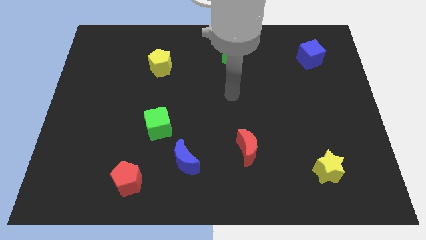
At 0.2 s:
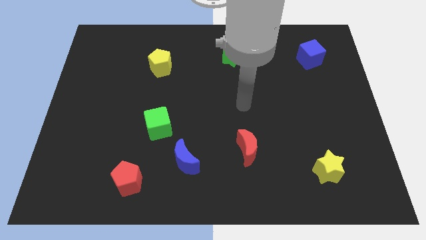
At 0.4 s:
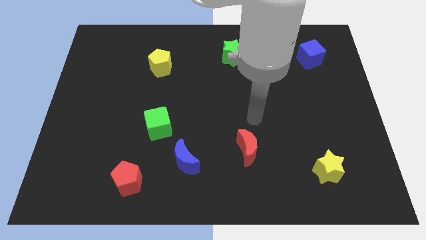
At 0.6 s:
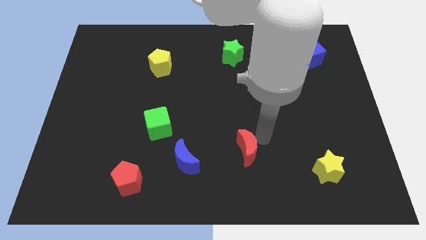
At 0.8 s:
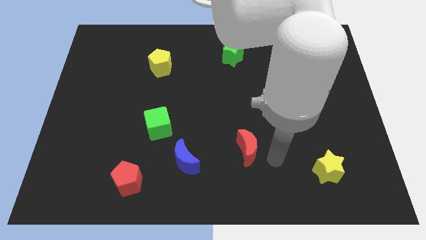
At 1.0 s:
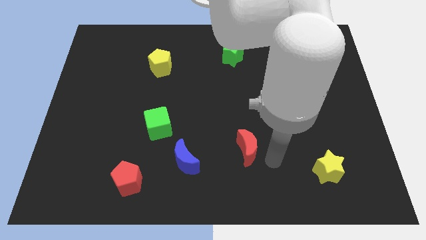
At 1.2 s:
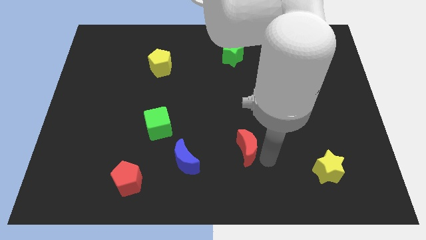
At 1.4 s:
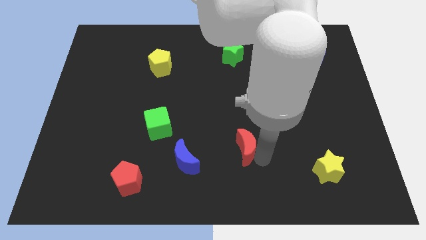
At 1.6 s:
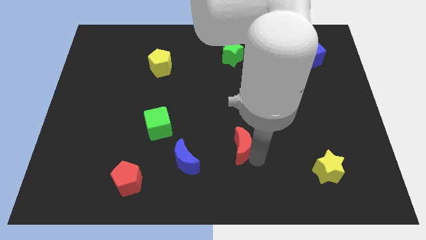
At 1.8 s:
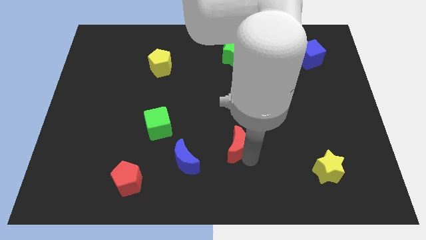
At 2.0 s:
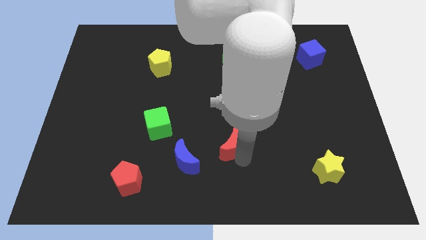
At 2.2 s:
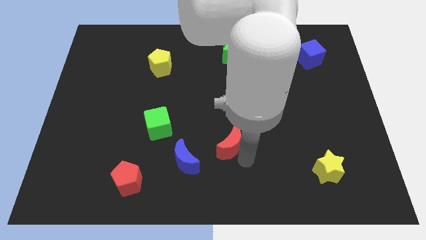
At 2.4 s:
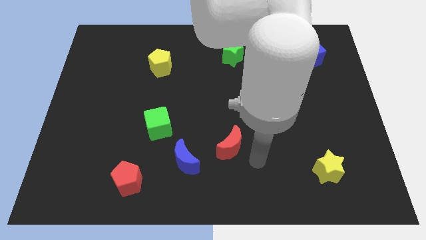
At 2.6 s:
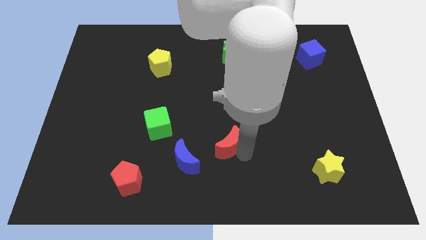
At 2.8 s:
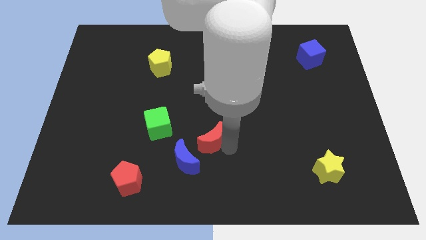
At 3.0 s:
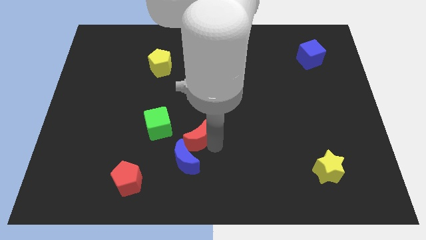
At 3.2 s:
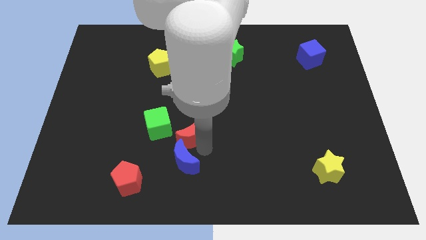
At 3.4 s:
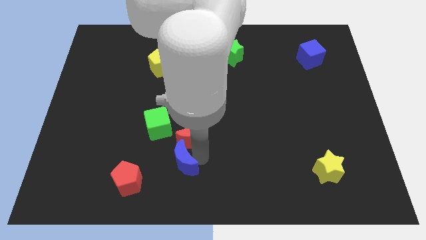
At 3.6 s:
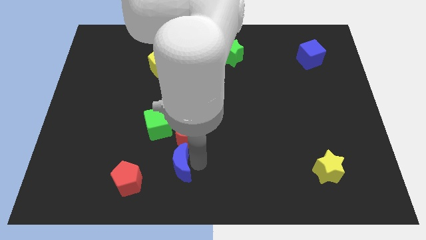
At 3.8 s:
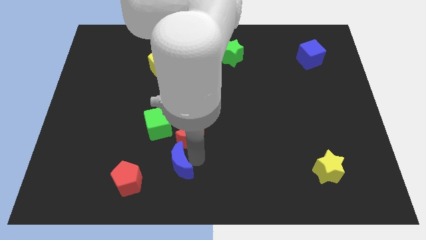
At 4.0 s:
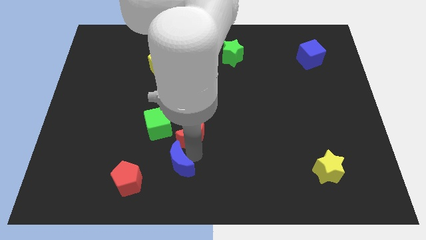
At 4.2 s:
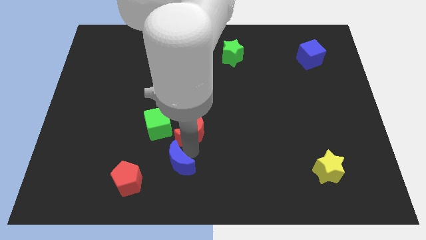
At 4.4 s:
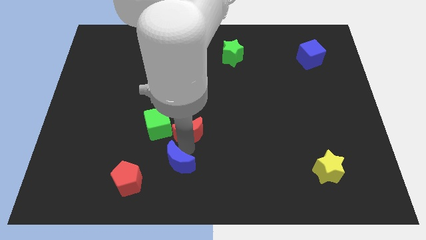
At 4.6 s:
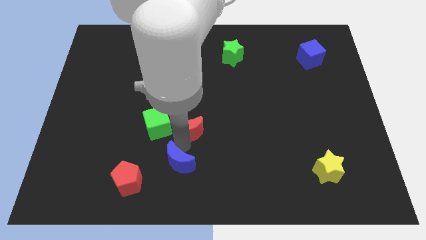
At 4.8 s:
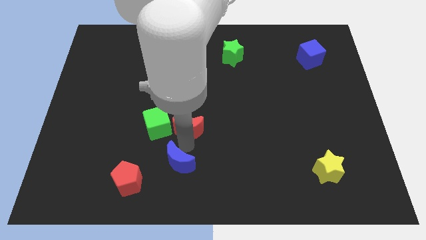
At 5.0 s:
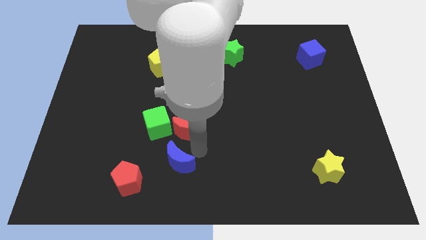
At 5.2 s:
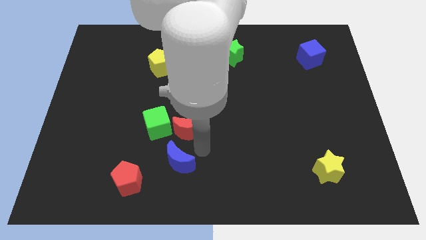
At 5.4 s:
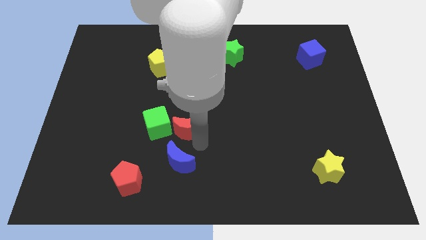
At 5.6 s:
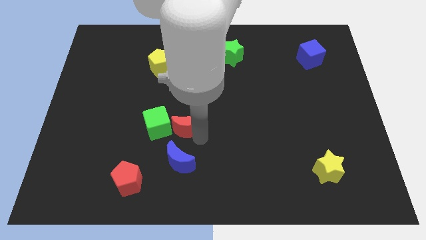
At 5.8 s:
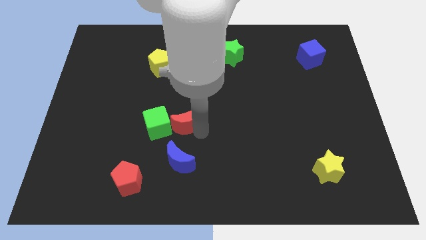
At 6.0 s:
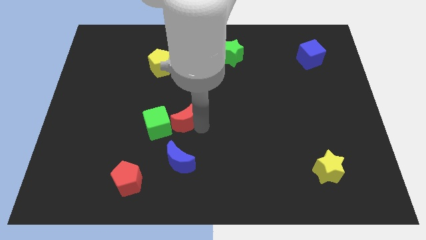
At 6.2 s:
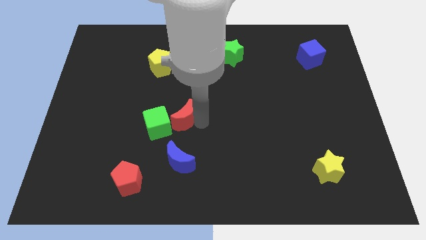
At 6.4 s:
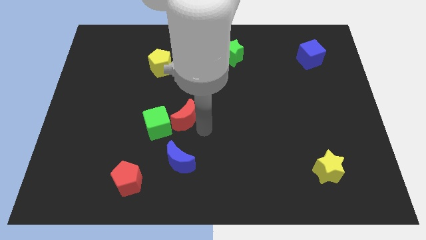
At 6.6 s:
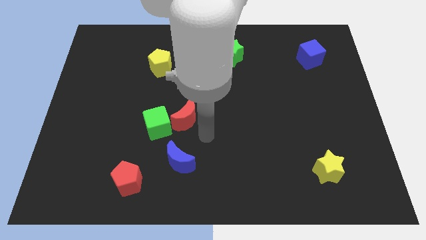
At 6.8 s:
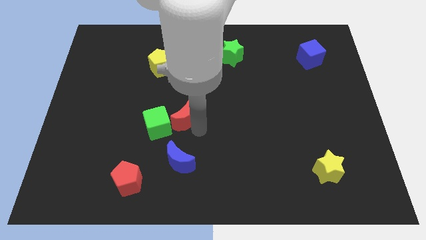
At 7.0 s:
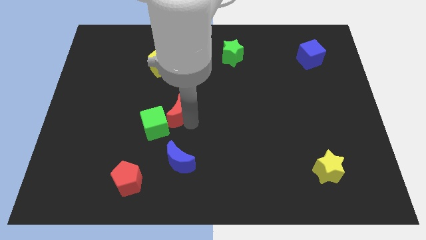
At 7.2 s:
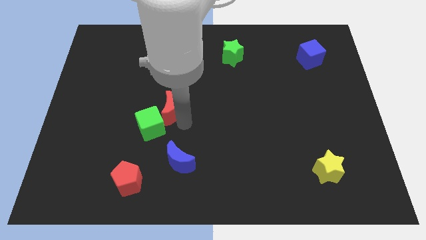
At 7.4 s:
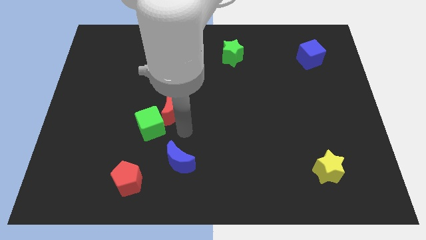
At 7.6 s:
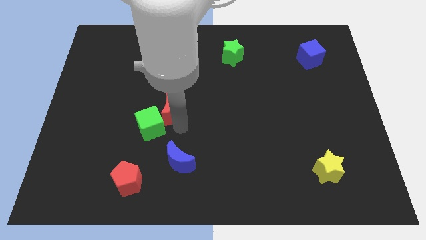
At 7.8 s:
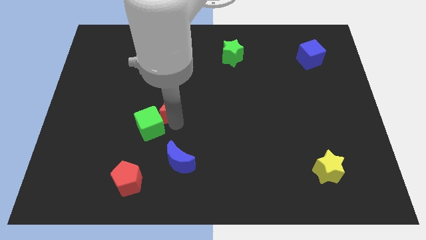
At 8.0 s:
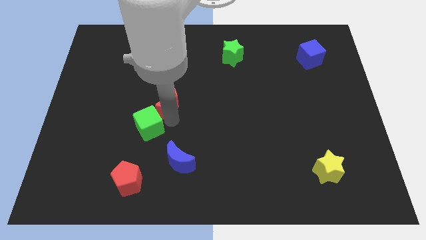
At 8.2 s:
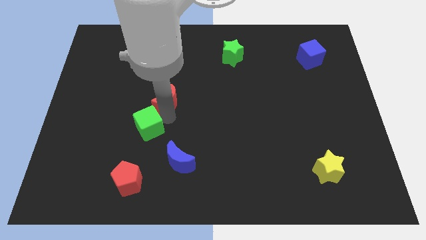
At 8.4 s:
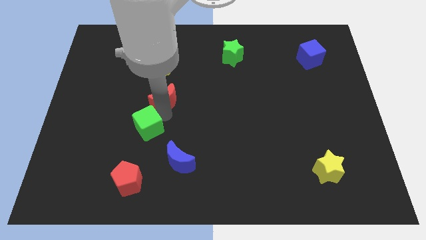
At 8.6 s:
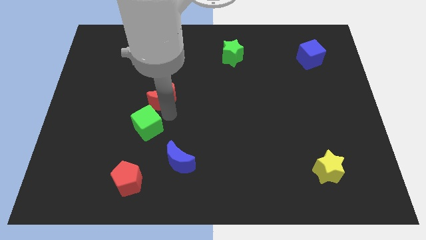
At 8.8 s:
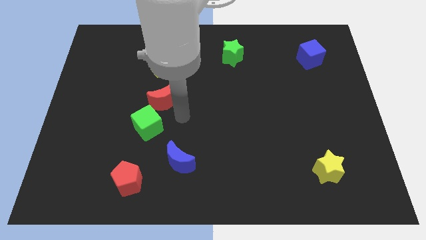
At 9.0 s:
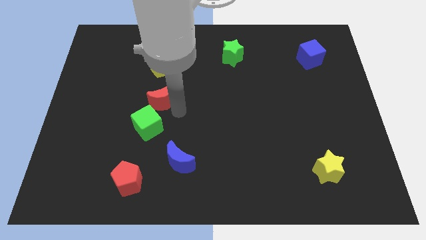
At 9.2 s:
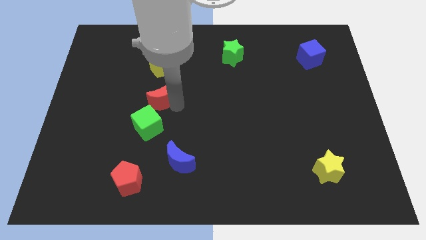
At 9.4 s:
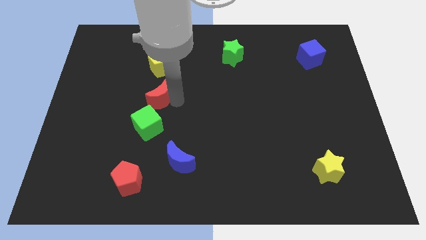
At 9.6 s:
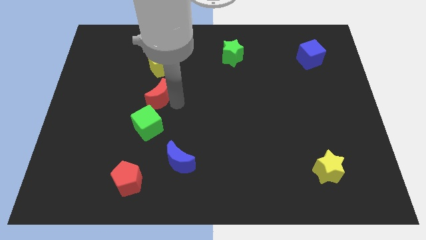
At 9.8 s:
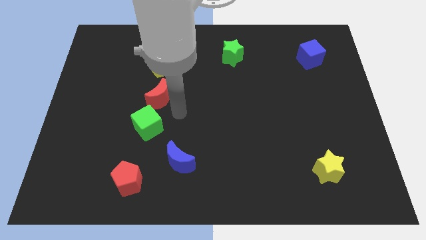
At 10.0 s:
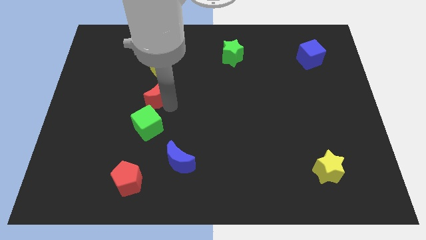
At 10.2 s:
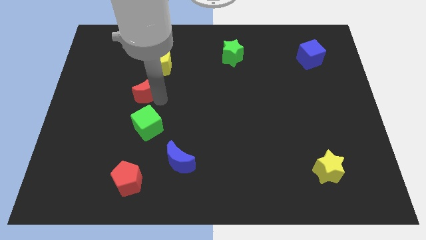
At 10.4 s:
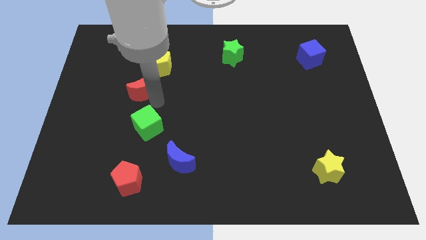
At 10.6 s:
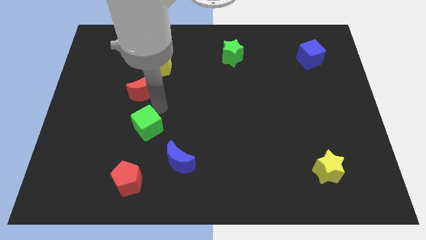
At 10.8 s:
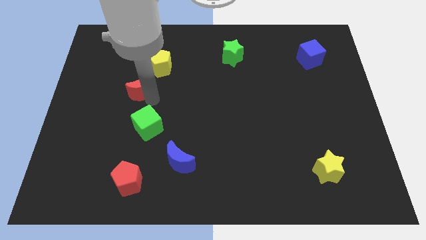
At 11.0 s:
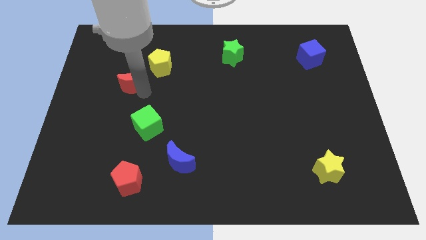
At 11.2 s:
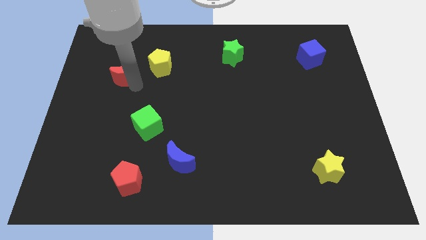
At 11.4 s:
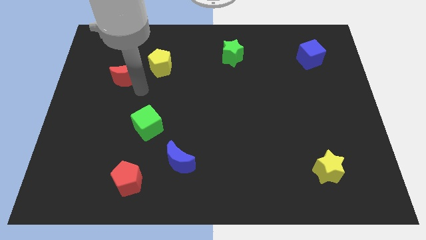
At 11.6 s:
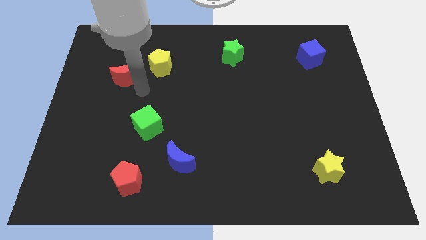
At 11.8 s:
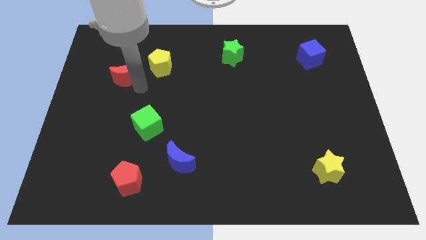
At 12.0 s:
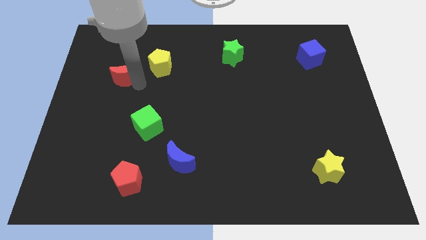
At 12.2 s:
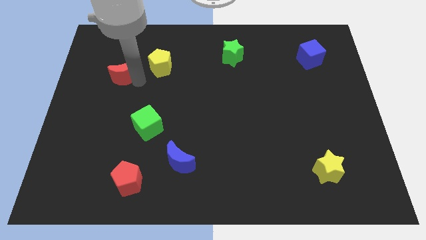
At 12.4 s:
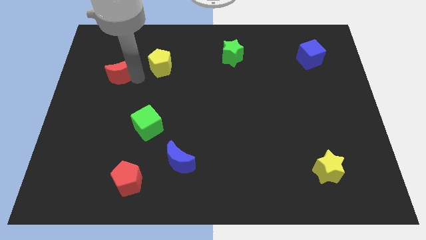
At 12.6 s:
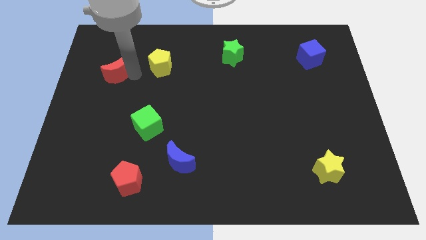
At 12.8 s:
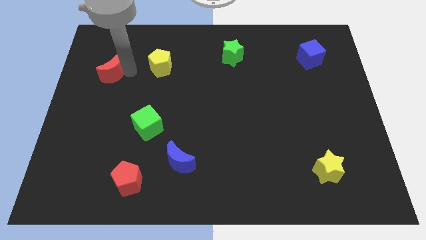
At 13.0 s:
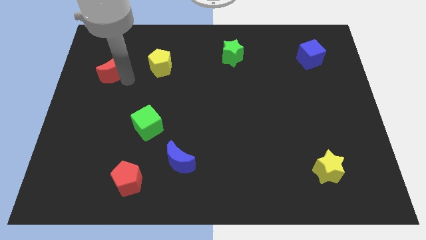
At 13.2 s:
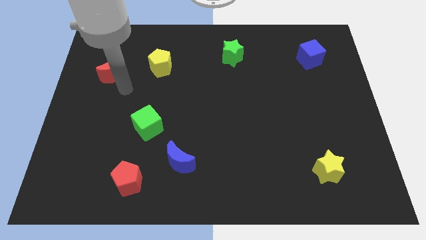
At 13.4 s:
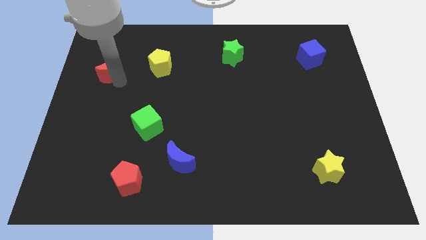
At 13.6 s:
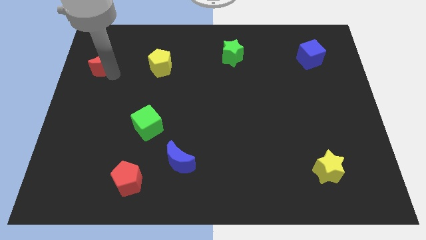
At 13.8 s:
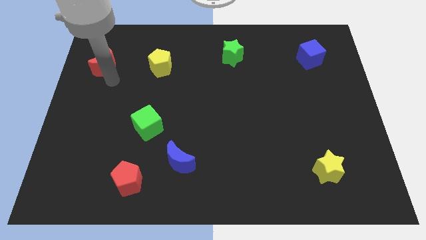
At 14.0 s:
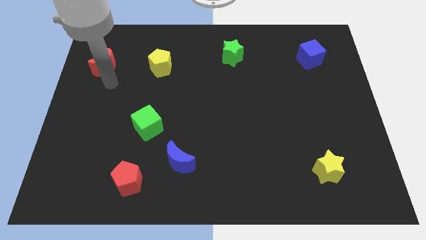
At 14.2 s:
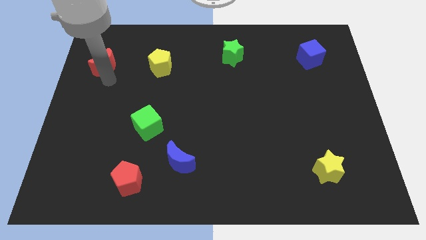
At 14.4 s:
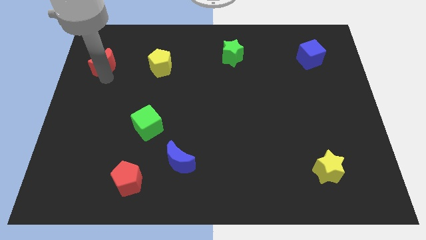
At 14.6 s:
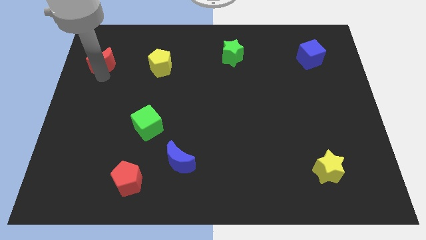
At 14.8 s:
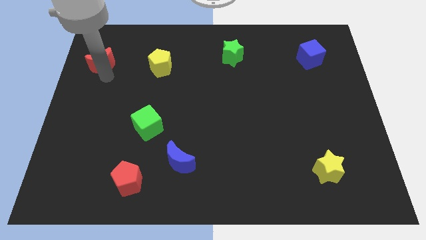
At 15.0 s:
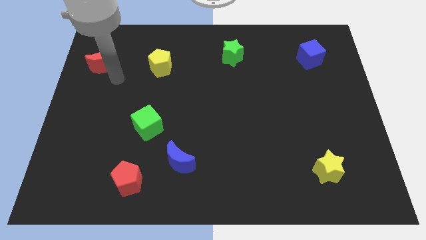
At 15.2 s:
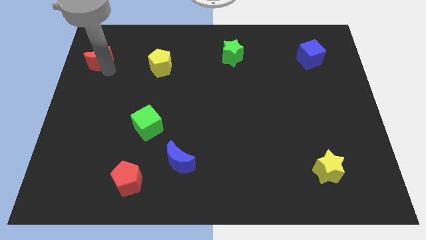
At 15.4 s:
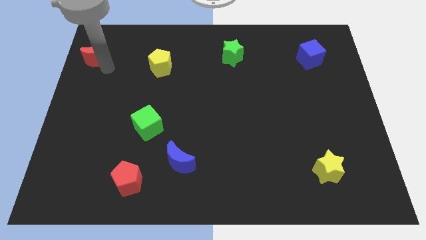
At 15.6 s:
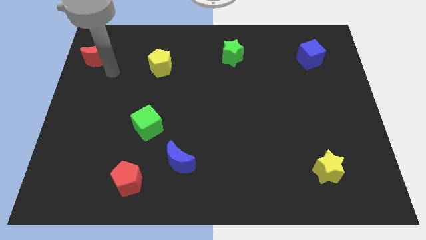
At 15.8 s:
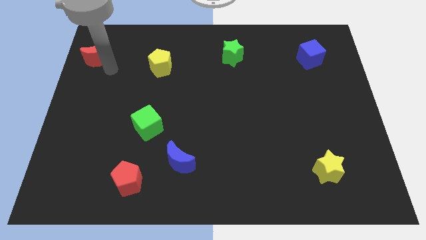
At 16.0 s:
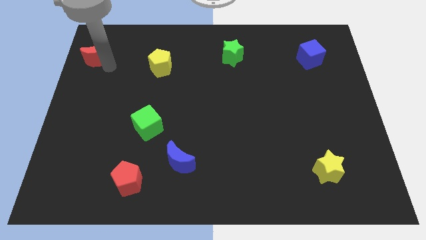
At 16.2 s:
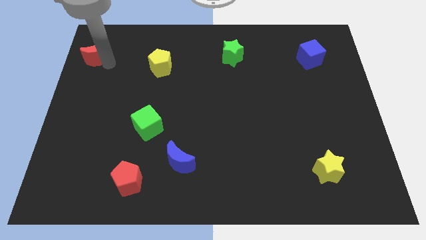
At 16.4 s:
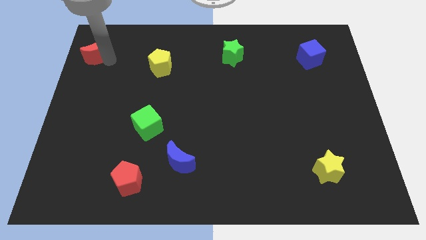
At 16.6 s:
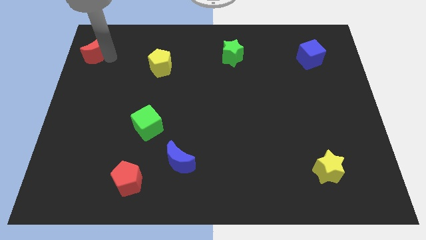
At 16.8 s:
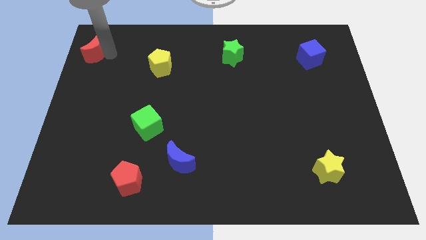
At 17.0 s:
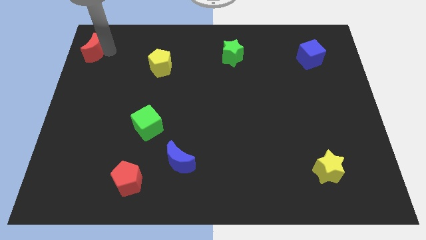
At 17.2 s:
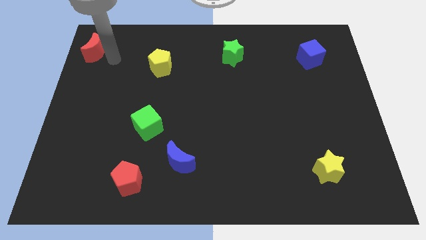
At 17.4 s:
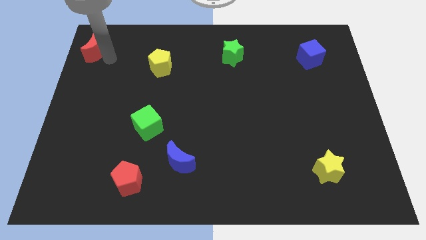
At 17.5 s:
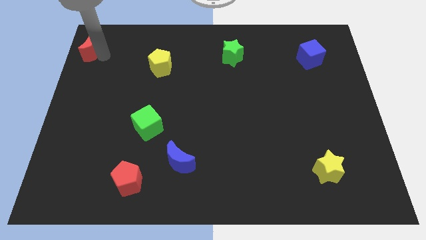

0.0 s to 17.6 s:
move the red moon to the top left of the board
